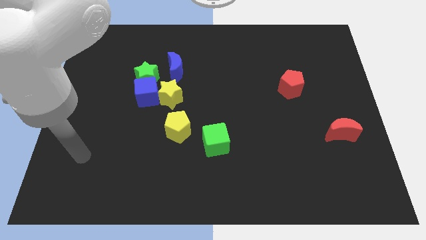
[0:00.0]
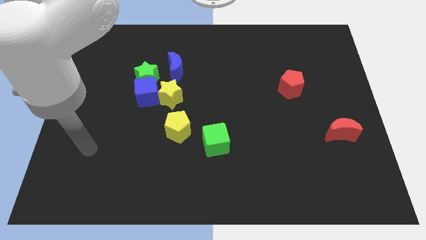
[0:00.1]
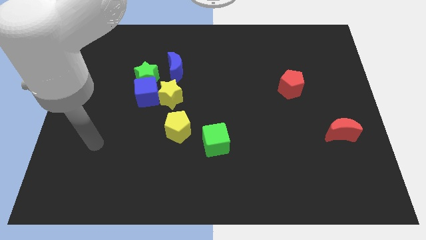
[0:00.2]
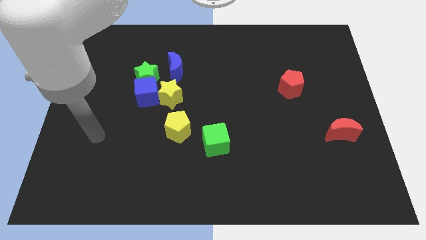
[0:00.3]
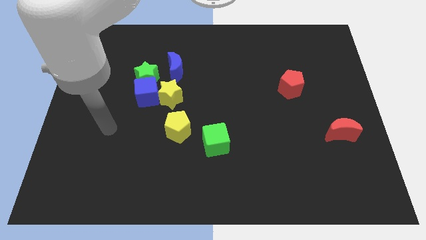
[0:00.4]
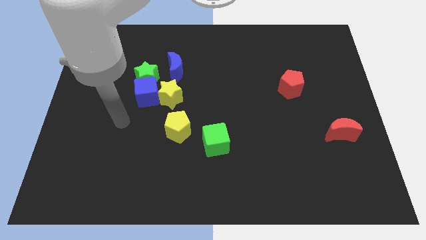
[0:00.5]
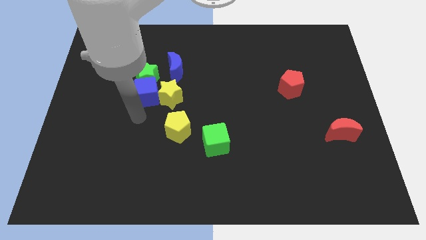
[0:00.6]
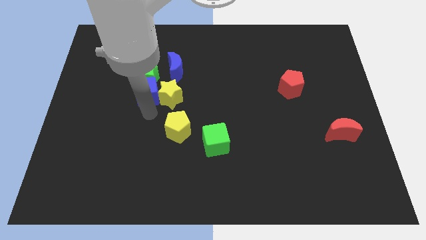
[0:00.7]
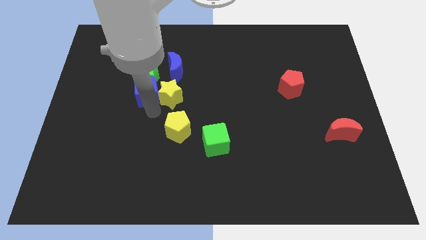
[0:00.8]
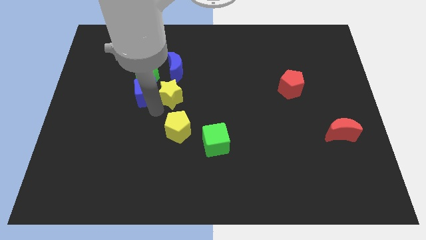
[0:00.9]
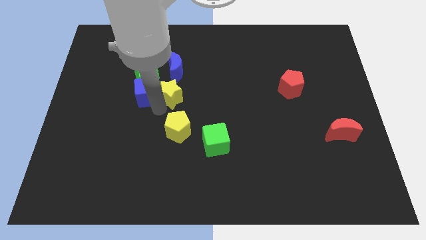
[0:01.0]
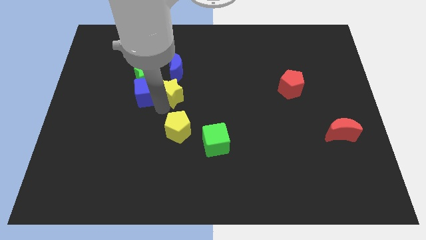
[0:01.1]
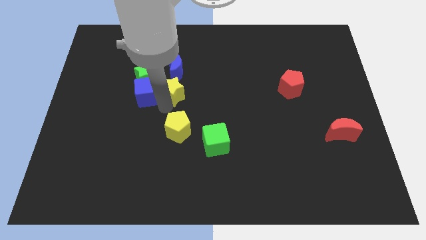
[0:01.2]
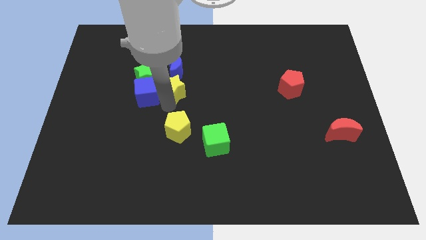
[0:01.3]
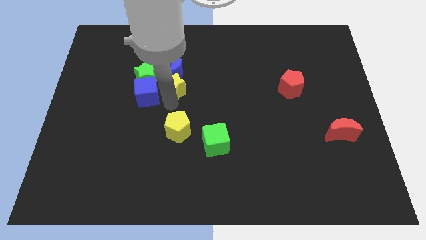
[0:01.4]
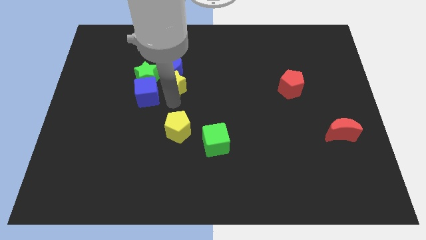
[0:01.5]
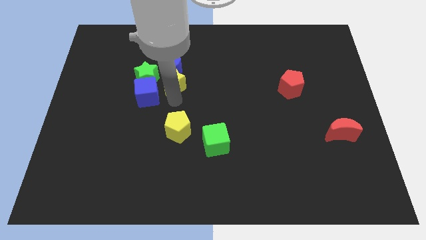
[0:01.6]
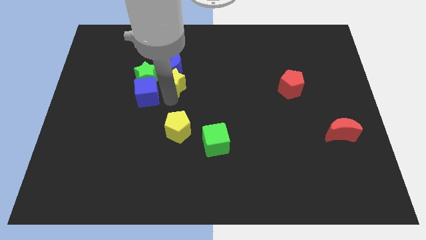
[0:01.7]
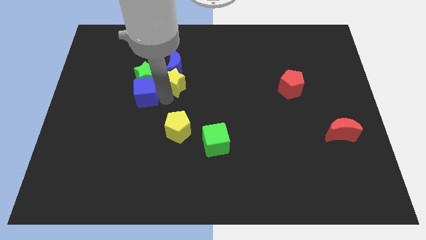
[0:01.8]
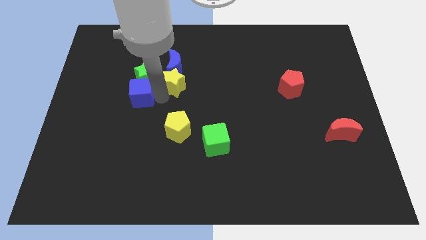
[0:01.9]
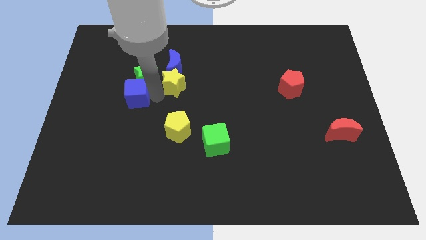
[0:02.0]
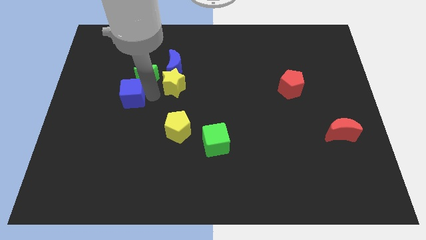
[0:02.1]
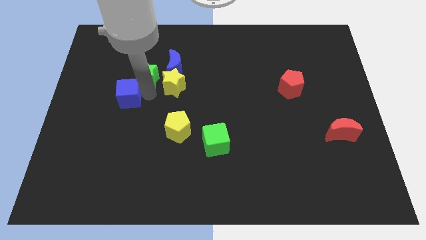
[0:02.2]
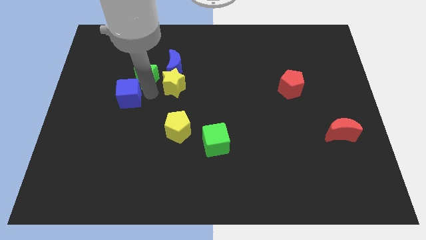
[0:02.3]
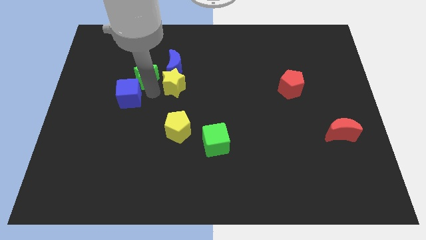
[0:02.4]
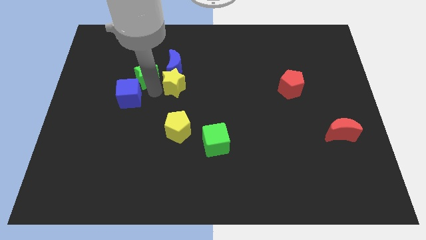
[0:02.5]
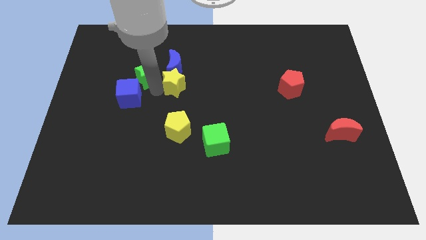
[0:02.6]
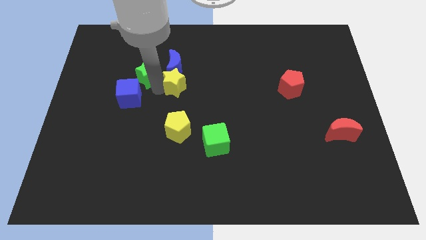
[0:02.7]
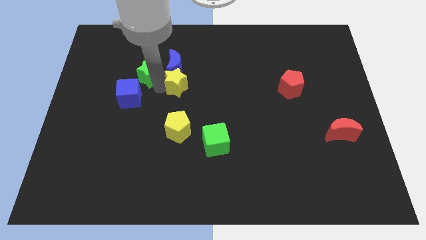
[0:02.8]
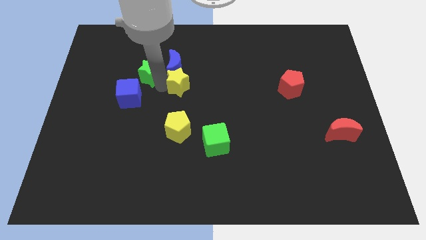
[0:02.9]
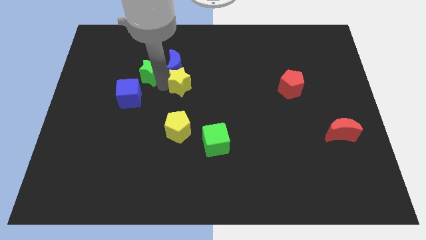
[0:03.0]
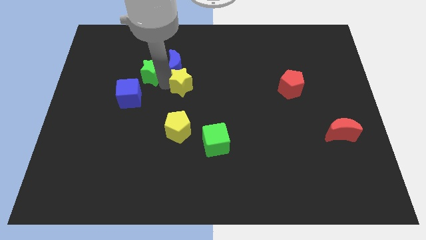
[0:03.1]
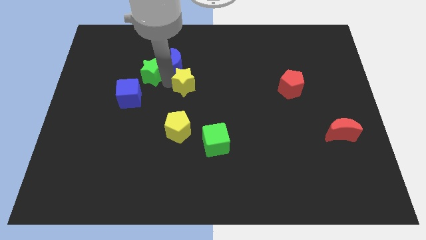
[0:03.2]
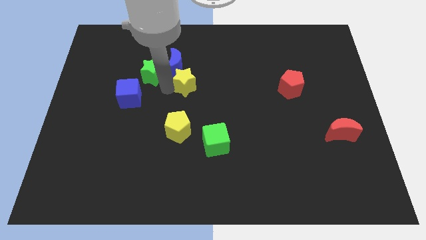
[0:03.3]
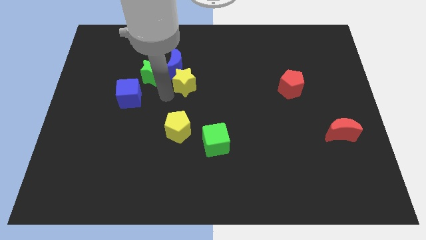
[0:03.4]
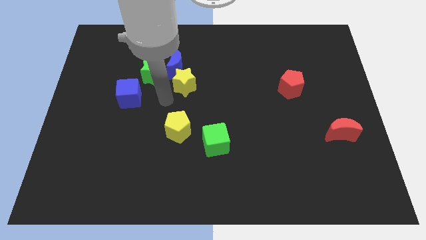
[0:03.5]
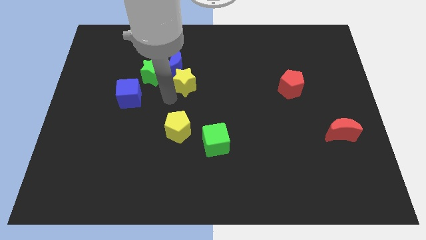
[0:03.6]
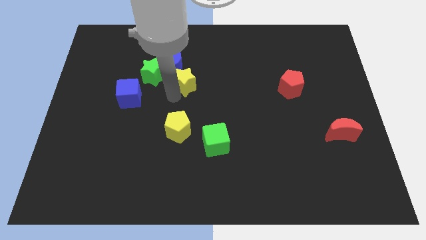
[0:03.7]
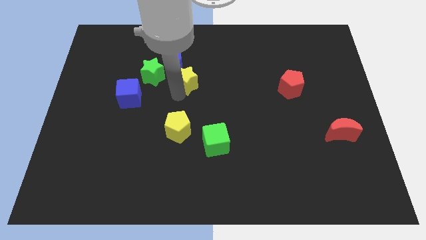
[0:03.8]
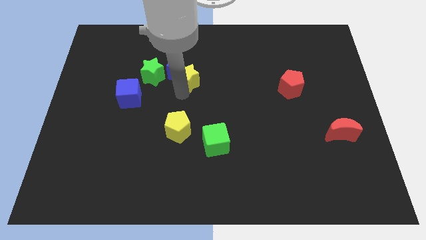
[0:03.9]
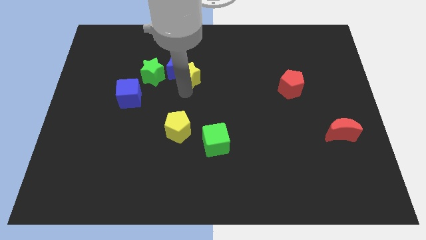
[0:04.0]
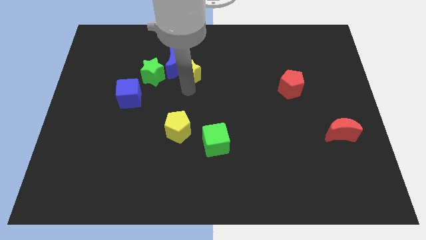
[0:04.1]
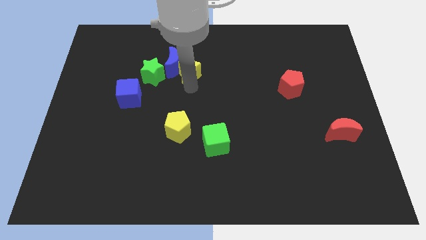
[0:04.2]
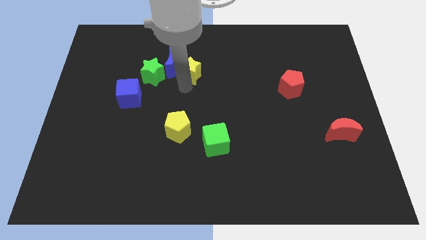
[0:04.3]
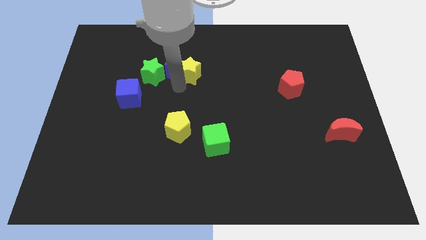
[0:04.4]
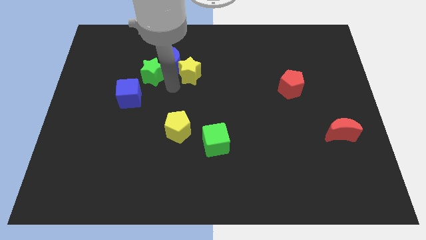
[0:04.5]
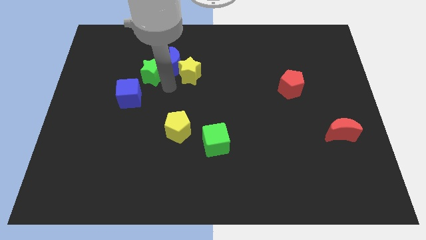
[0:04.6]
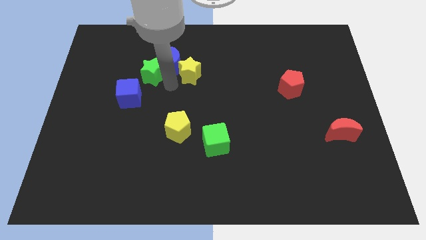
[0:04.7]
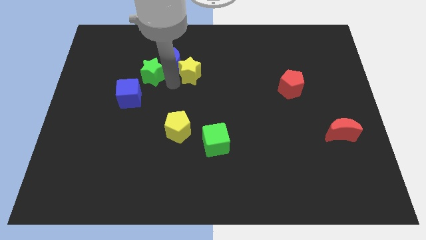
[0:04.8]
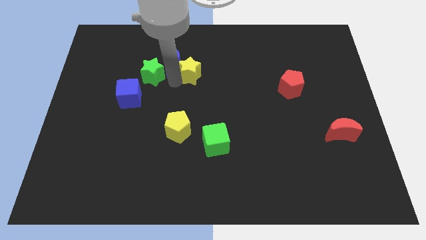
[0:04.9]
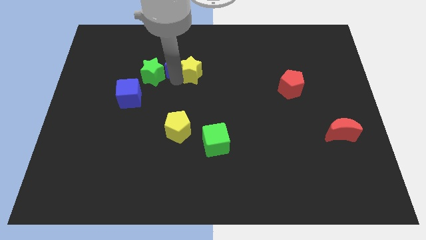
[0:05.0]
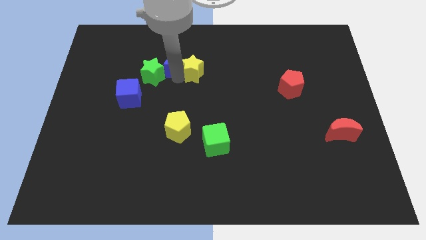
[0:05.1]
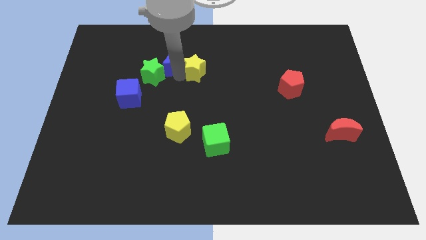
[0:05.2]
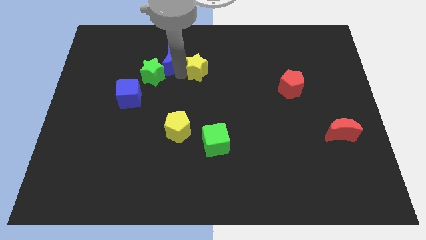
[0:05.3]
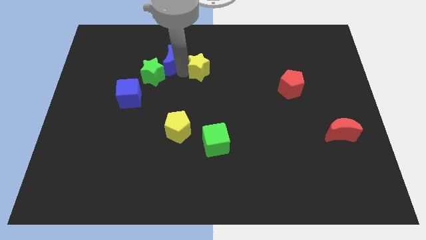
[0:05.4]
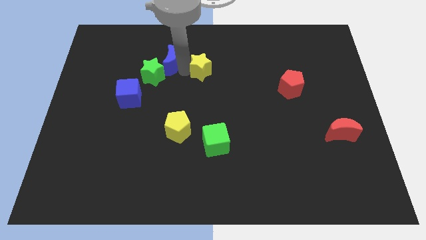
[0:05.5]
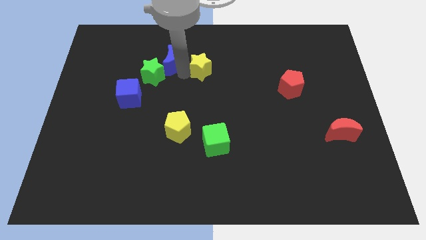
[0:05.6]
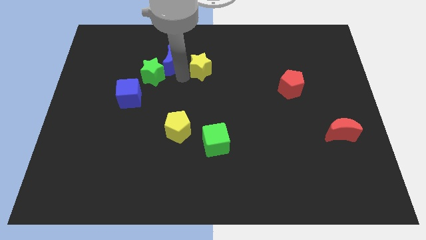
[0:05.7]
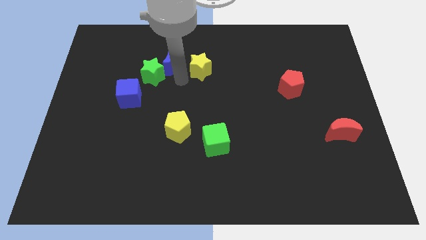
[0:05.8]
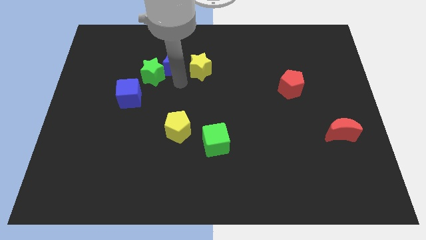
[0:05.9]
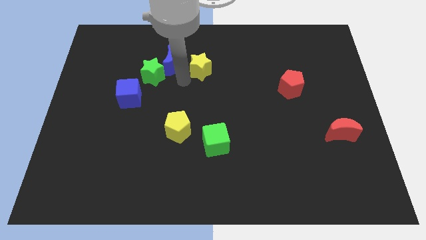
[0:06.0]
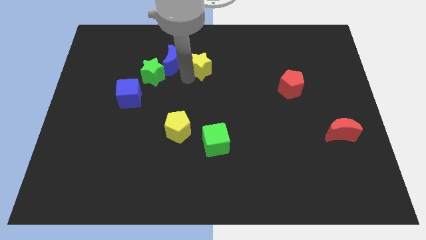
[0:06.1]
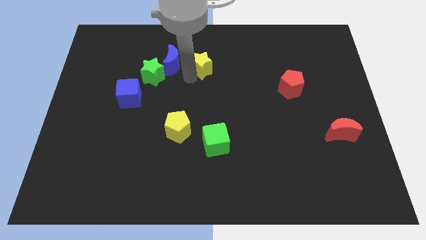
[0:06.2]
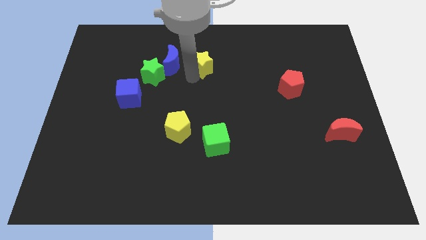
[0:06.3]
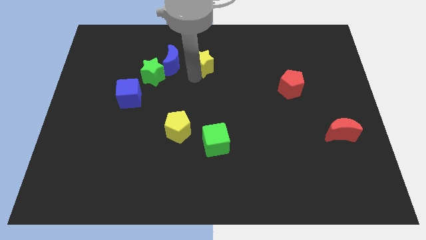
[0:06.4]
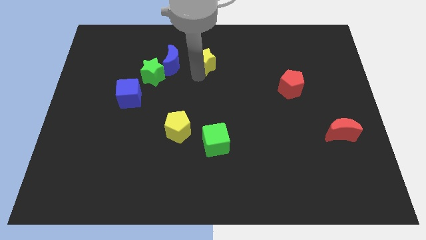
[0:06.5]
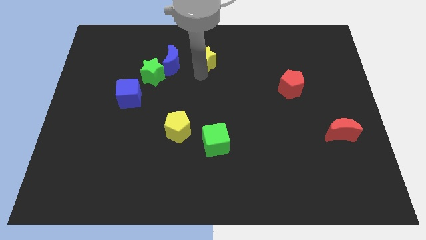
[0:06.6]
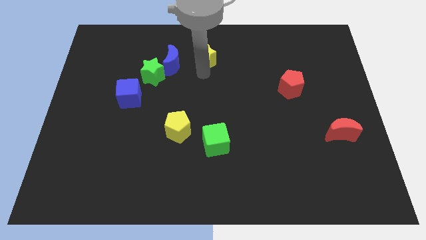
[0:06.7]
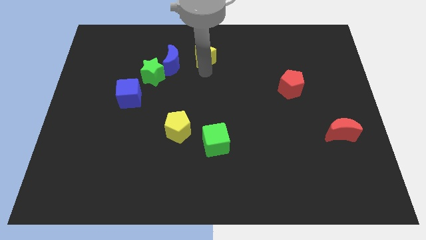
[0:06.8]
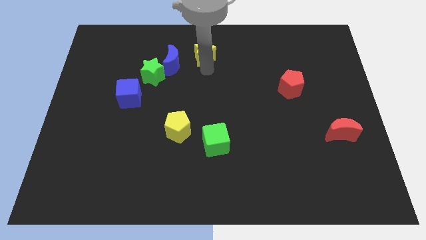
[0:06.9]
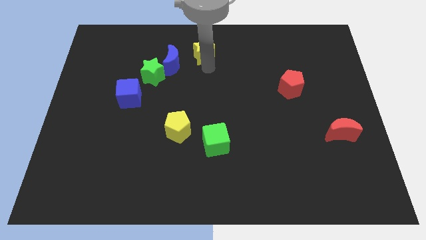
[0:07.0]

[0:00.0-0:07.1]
put the yellow star to the top
